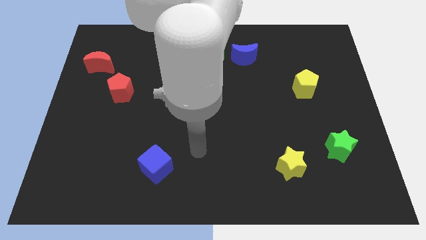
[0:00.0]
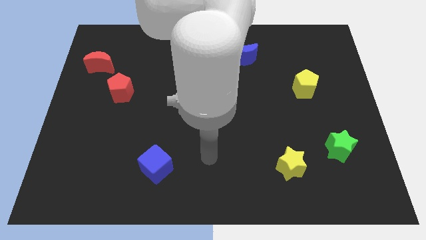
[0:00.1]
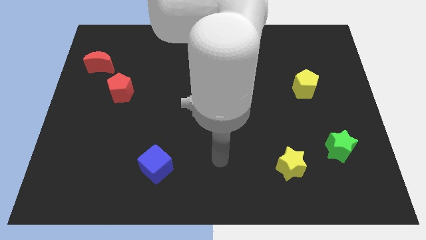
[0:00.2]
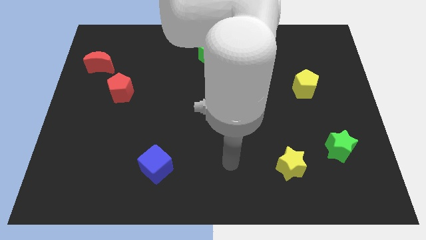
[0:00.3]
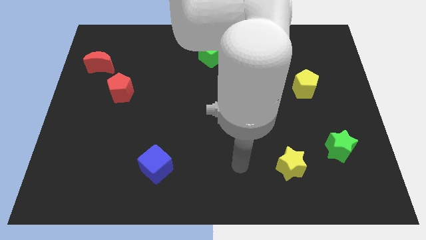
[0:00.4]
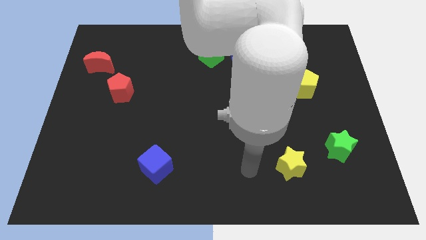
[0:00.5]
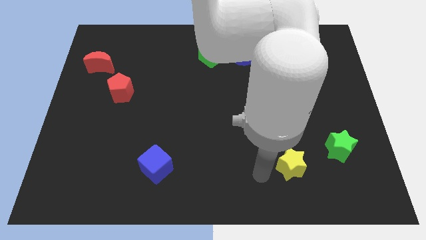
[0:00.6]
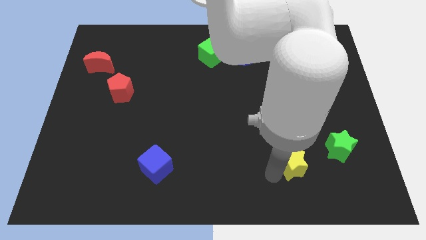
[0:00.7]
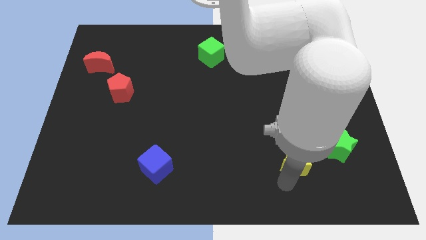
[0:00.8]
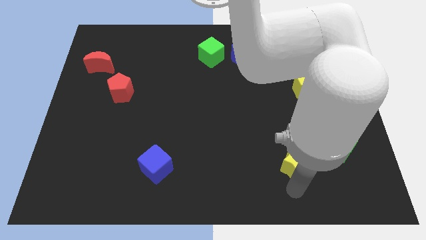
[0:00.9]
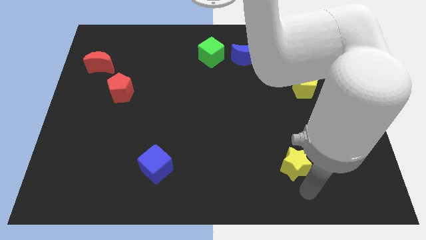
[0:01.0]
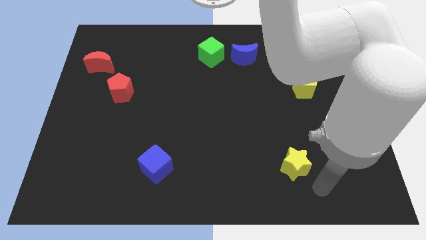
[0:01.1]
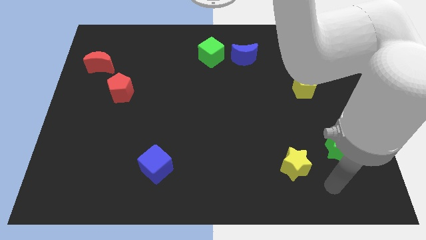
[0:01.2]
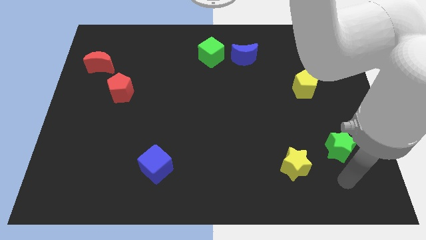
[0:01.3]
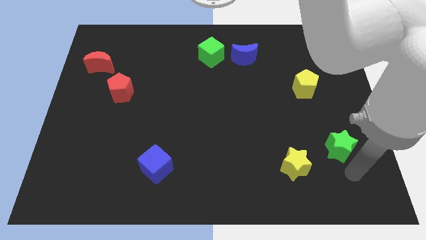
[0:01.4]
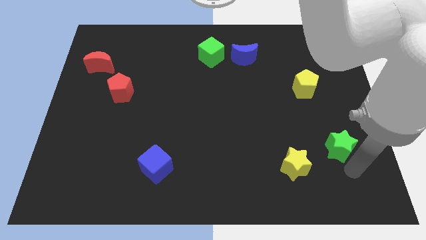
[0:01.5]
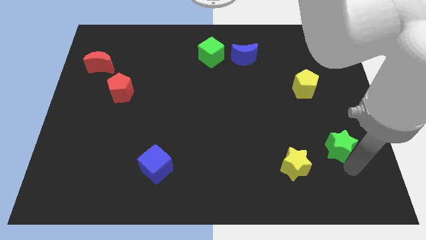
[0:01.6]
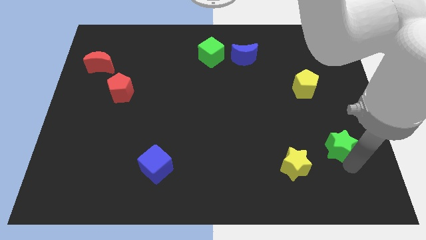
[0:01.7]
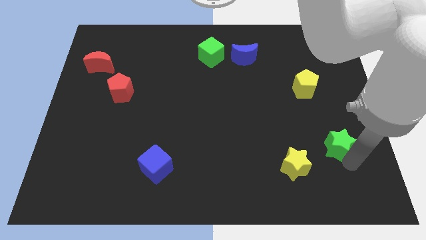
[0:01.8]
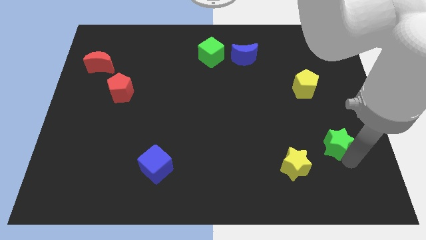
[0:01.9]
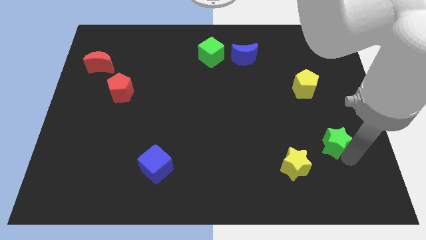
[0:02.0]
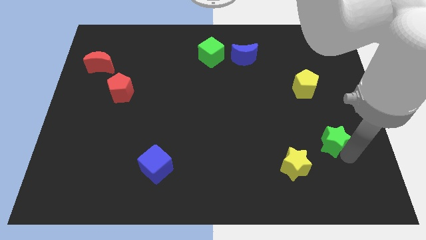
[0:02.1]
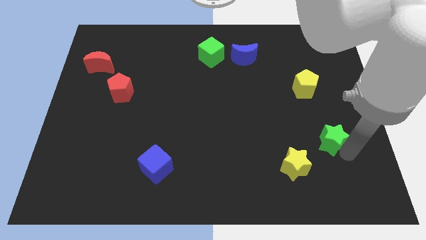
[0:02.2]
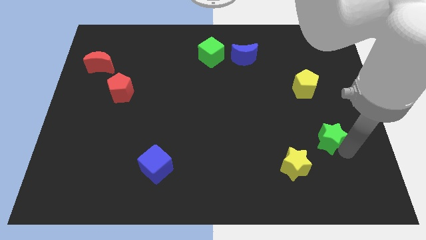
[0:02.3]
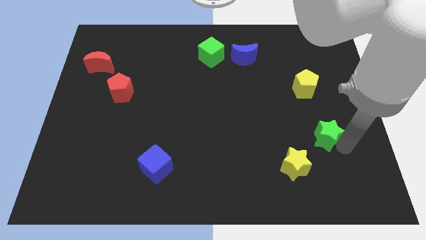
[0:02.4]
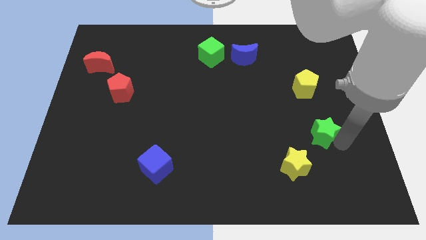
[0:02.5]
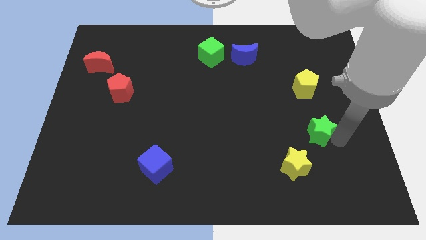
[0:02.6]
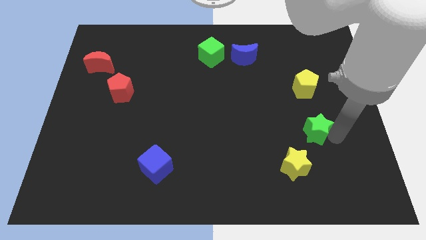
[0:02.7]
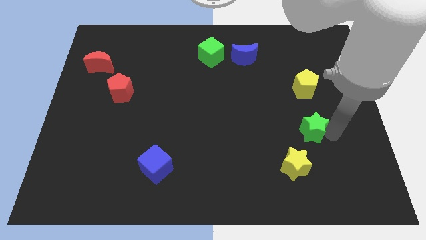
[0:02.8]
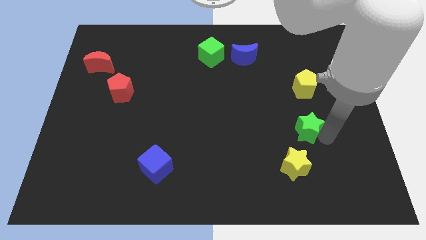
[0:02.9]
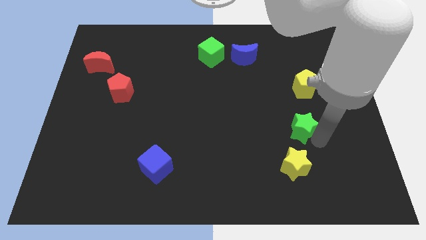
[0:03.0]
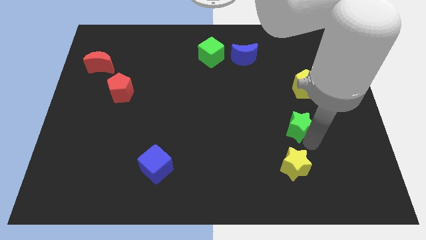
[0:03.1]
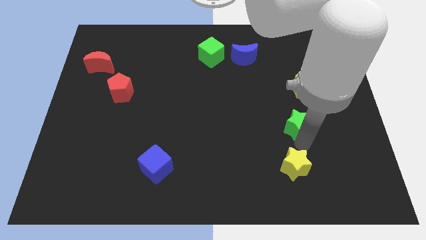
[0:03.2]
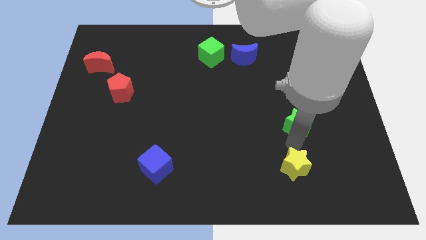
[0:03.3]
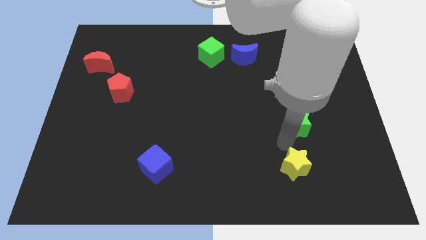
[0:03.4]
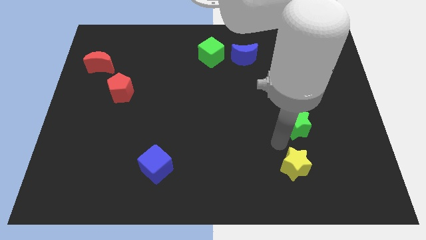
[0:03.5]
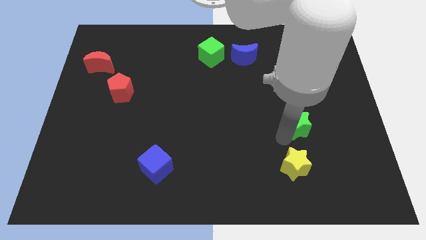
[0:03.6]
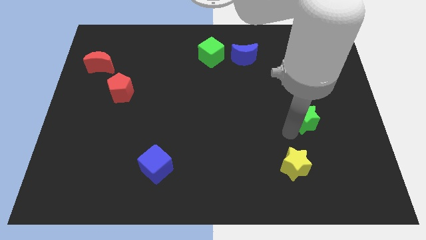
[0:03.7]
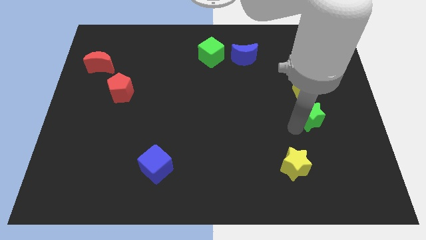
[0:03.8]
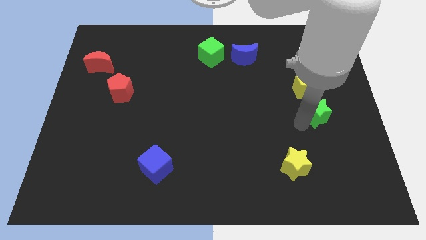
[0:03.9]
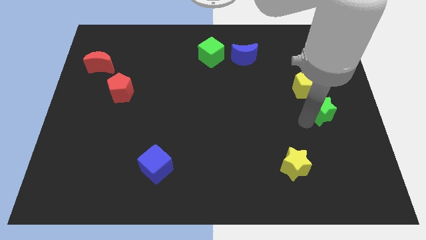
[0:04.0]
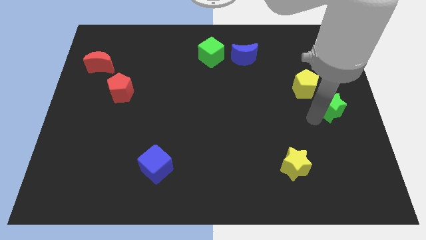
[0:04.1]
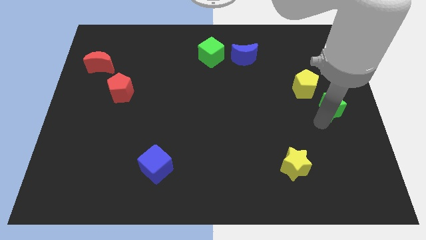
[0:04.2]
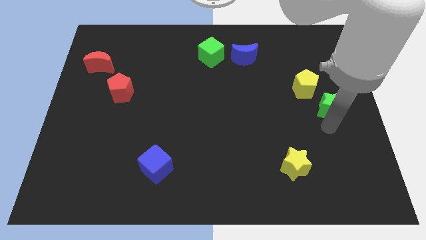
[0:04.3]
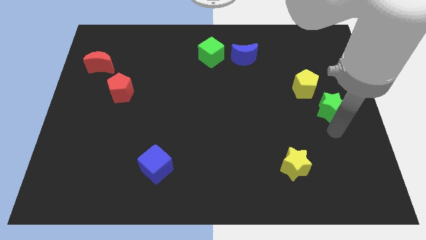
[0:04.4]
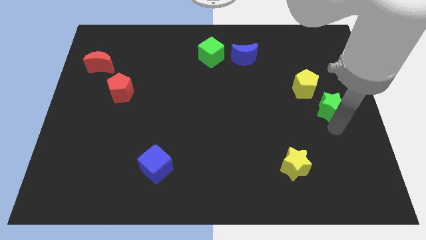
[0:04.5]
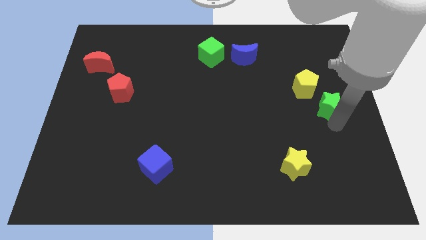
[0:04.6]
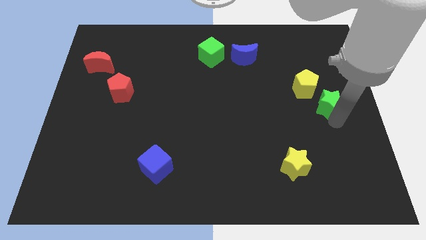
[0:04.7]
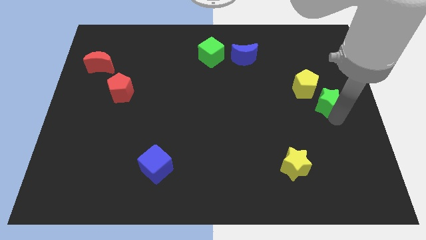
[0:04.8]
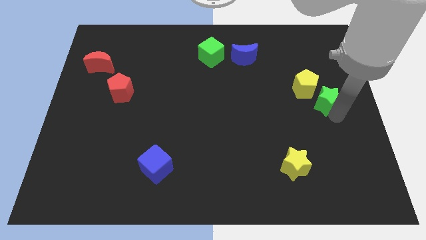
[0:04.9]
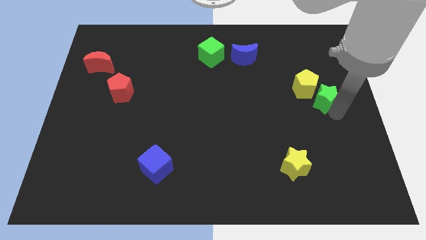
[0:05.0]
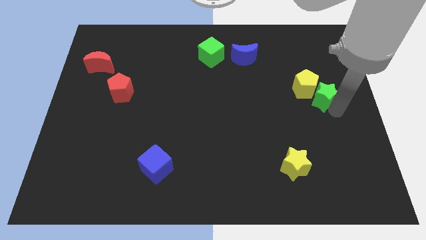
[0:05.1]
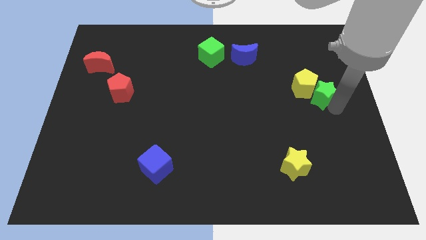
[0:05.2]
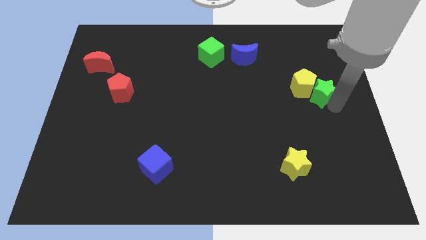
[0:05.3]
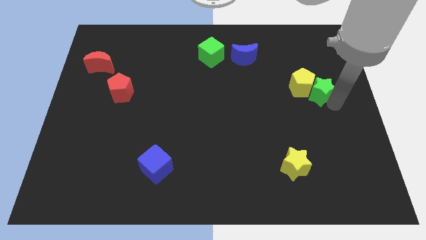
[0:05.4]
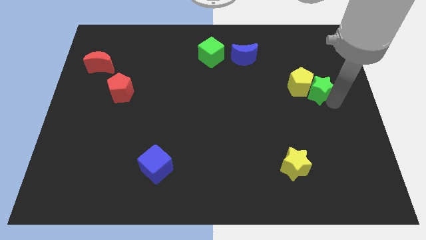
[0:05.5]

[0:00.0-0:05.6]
put the green star diagonally up and to the right of the yellow pentagon

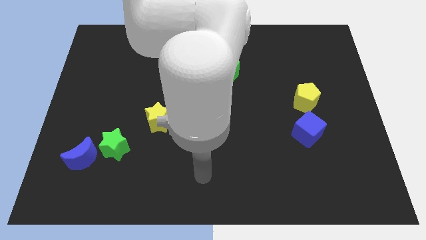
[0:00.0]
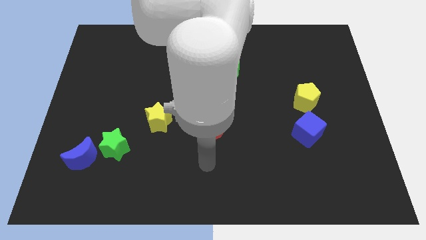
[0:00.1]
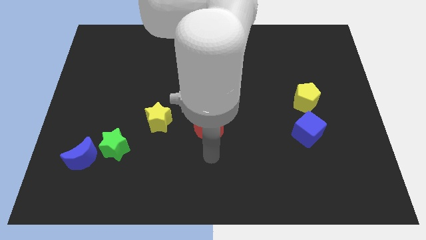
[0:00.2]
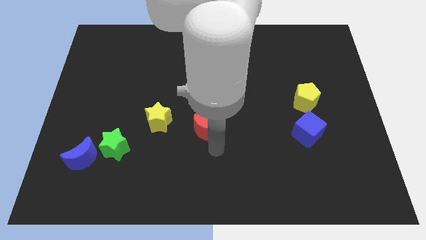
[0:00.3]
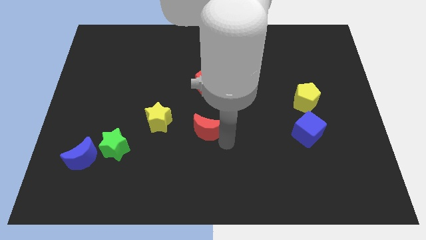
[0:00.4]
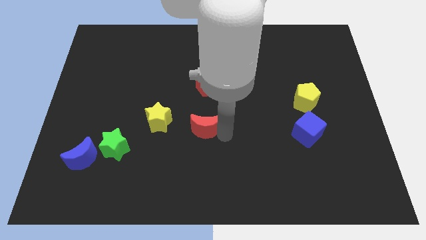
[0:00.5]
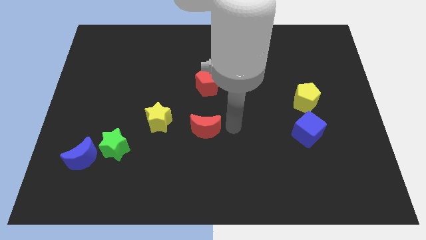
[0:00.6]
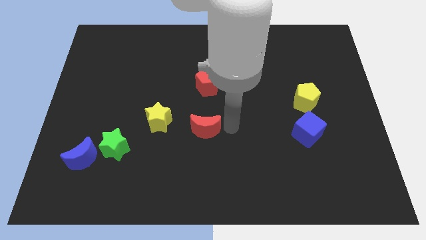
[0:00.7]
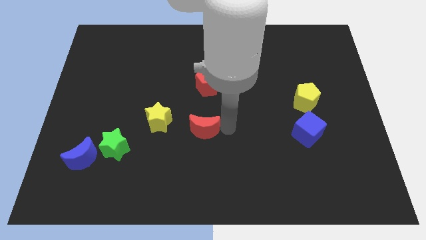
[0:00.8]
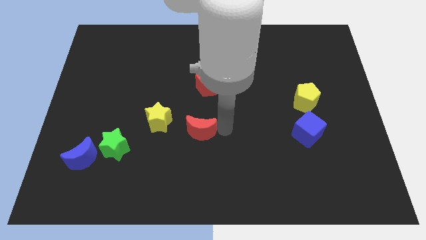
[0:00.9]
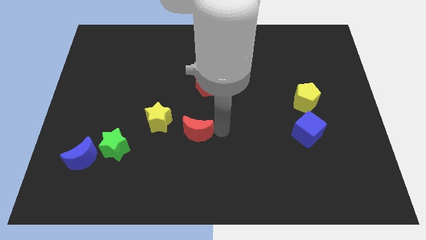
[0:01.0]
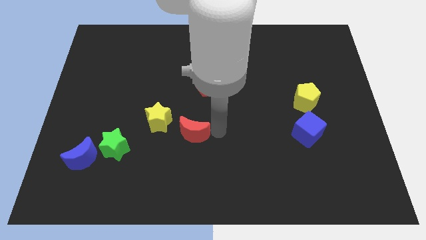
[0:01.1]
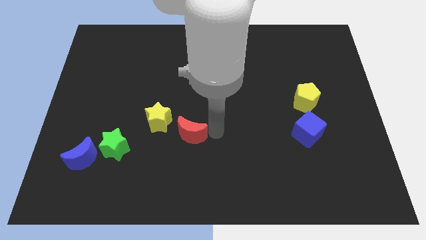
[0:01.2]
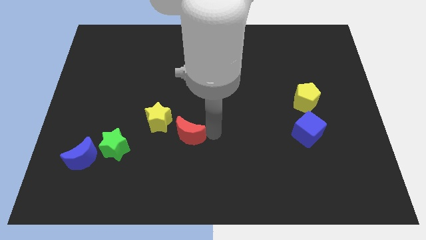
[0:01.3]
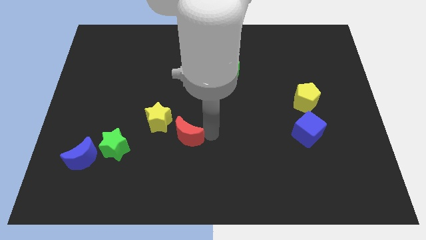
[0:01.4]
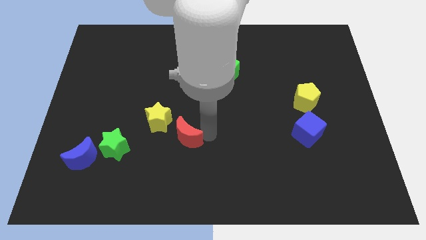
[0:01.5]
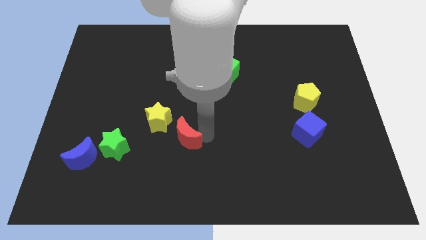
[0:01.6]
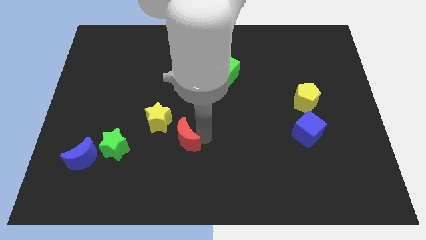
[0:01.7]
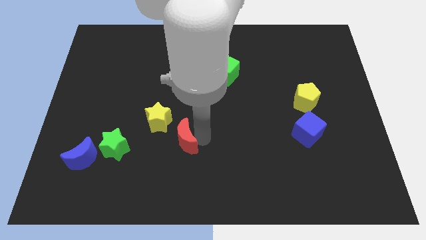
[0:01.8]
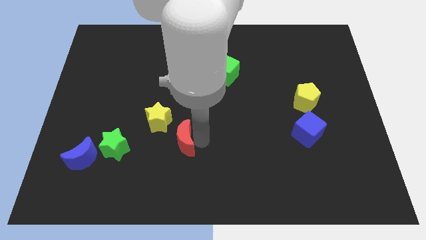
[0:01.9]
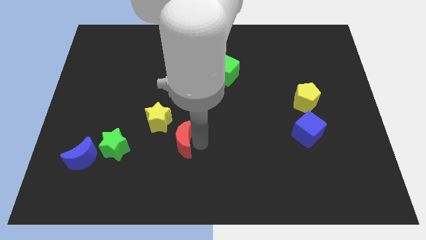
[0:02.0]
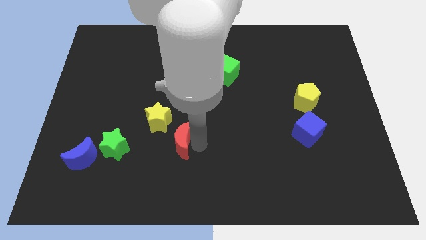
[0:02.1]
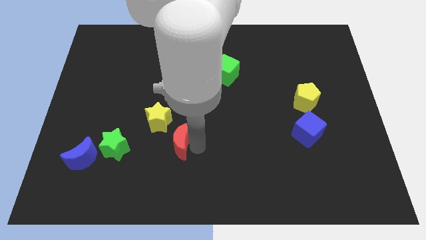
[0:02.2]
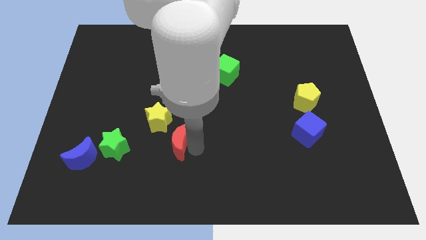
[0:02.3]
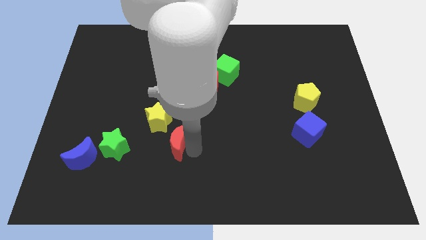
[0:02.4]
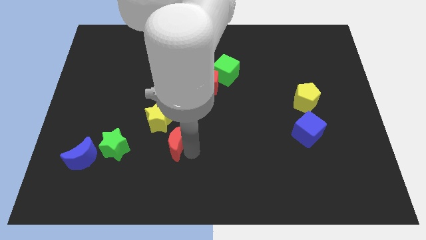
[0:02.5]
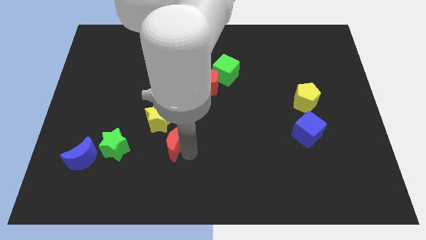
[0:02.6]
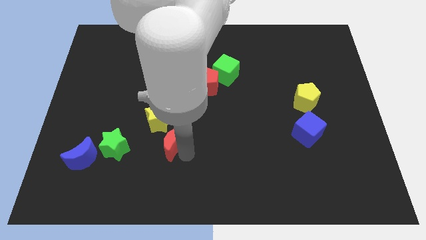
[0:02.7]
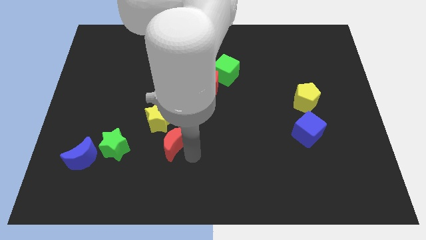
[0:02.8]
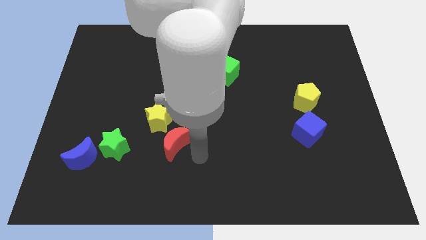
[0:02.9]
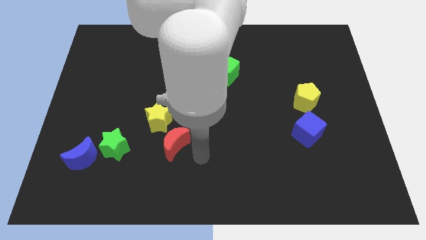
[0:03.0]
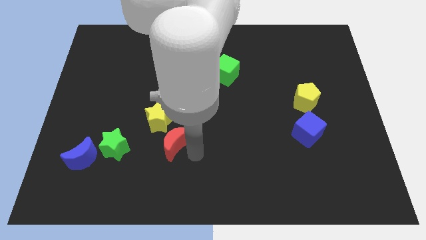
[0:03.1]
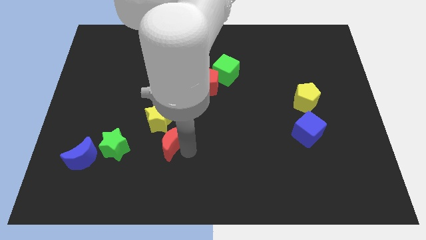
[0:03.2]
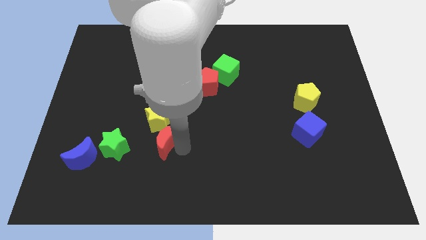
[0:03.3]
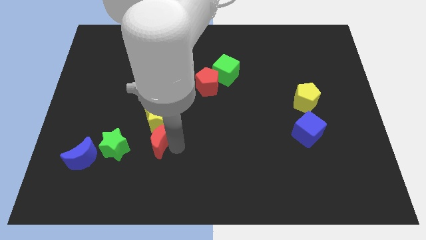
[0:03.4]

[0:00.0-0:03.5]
slide the red moon to the bottom left side of the yellow star
